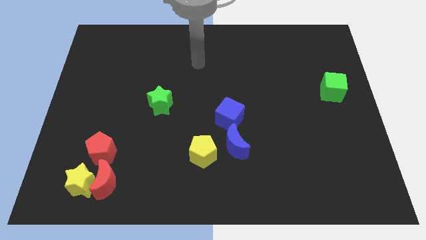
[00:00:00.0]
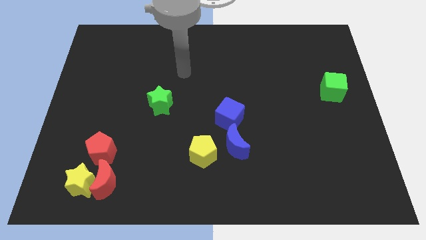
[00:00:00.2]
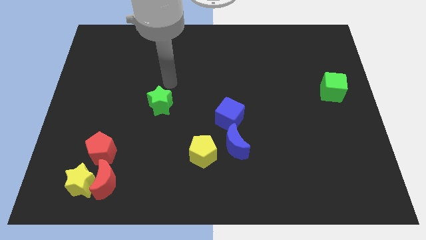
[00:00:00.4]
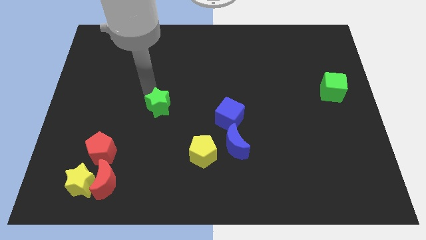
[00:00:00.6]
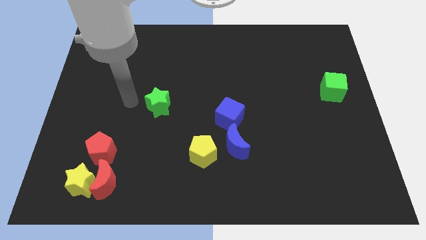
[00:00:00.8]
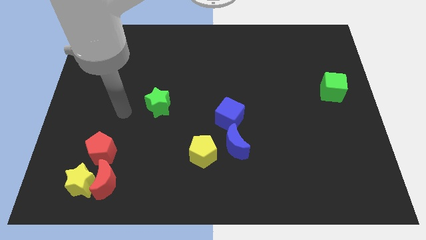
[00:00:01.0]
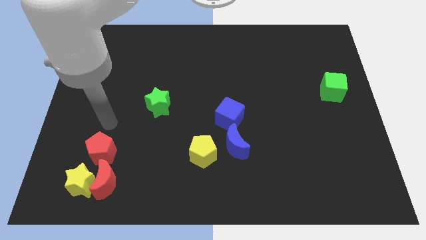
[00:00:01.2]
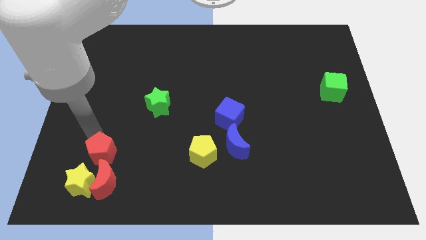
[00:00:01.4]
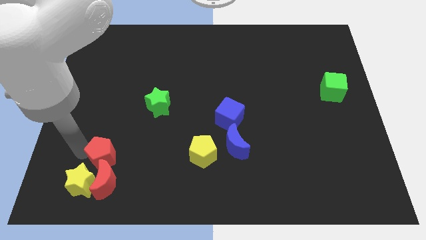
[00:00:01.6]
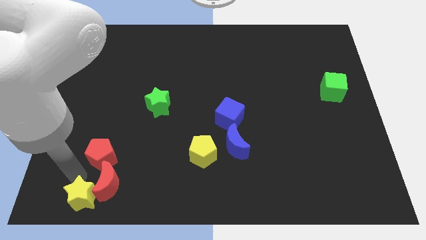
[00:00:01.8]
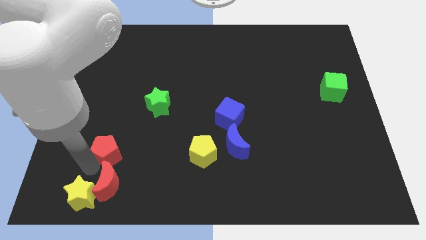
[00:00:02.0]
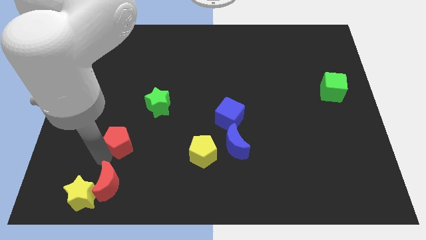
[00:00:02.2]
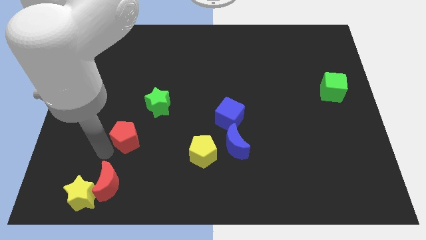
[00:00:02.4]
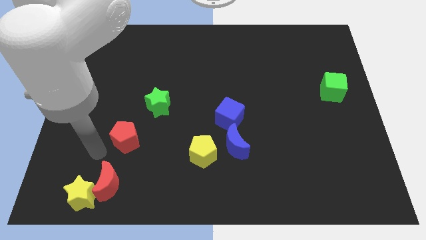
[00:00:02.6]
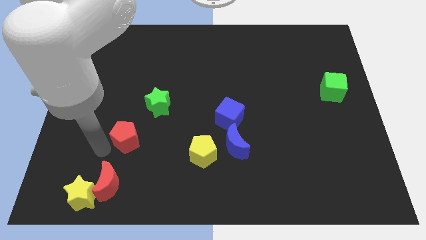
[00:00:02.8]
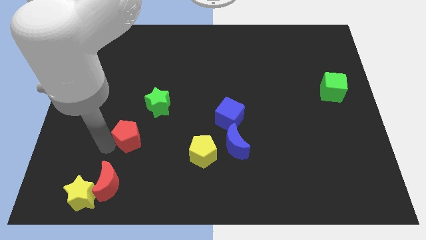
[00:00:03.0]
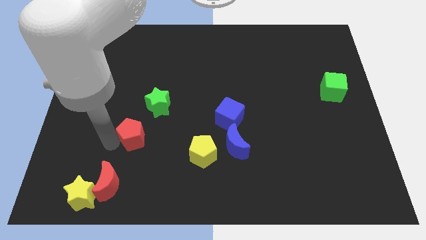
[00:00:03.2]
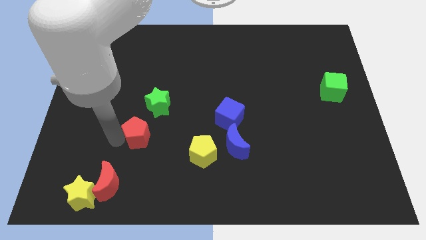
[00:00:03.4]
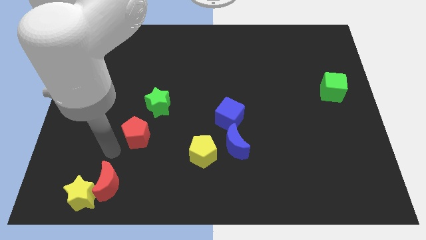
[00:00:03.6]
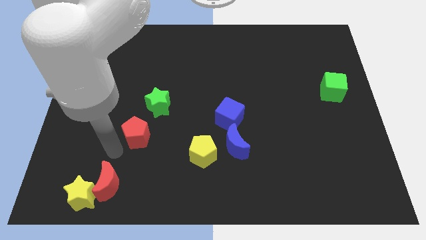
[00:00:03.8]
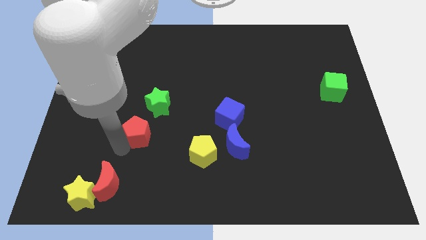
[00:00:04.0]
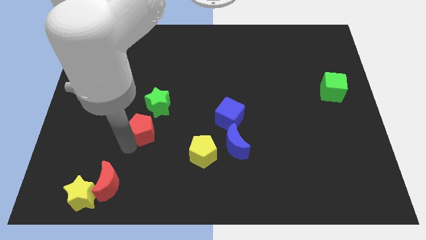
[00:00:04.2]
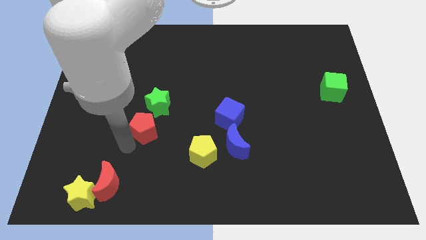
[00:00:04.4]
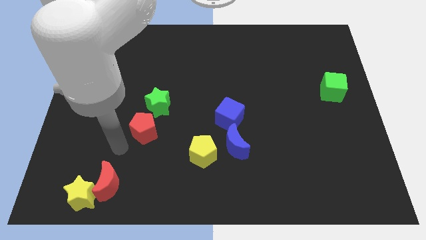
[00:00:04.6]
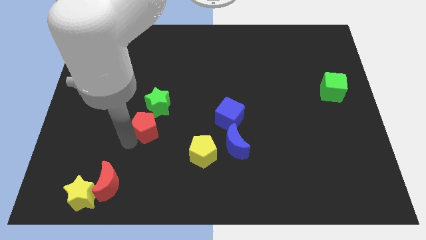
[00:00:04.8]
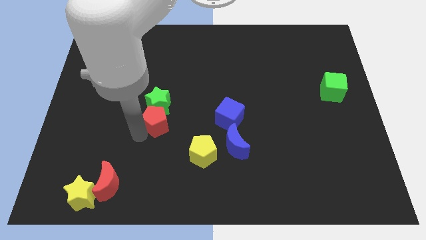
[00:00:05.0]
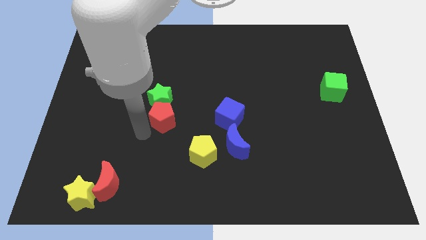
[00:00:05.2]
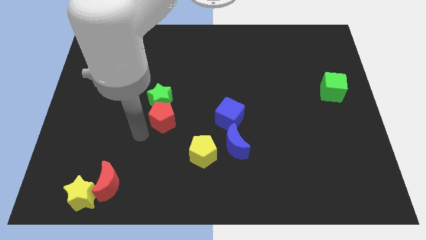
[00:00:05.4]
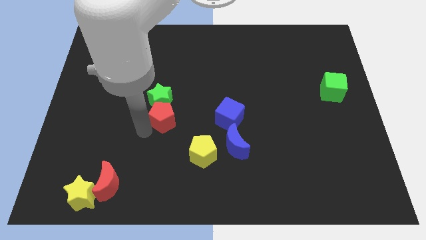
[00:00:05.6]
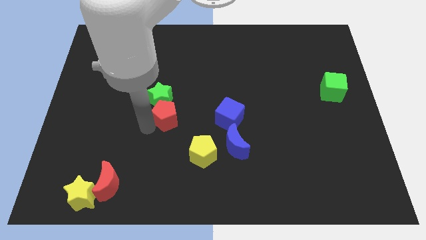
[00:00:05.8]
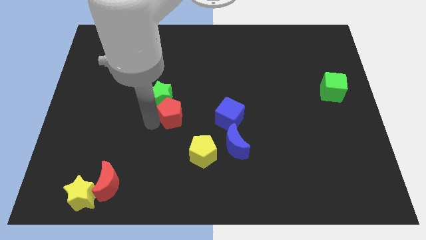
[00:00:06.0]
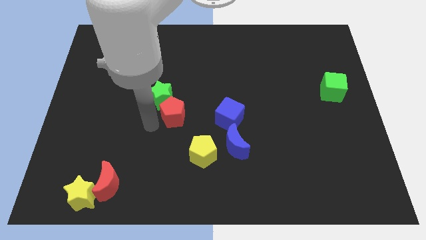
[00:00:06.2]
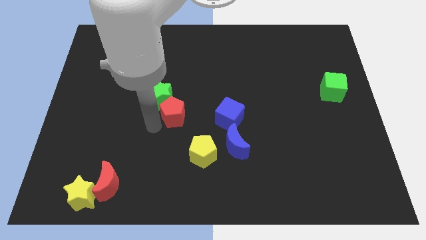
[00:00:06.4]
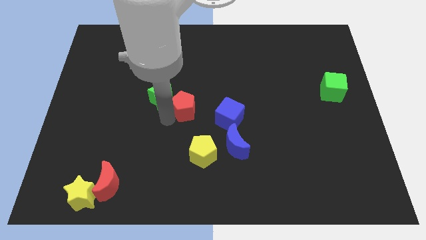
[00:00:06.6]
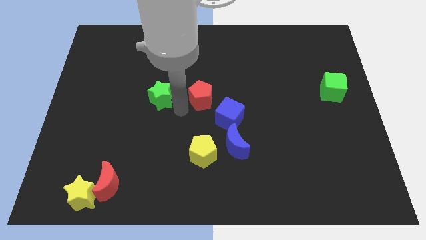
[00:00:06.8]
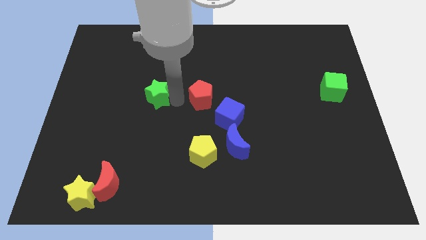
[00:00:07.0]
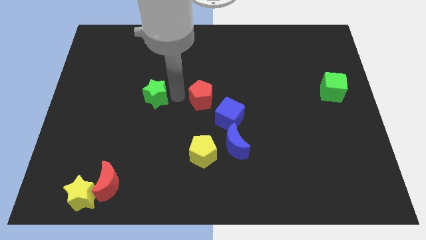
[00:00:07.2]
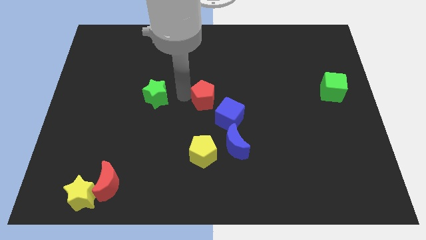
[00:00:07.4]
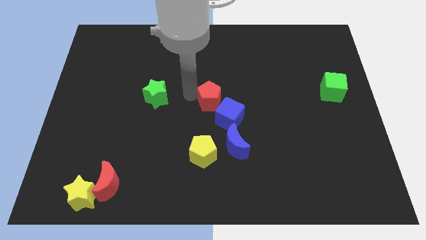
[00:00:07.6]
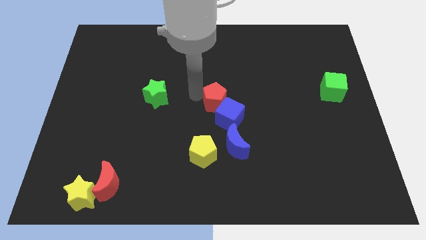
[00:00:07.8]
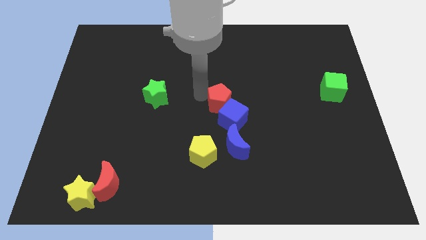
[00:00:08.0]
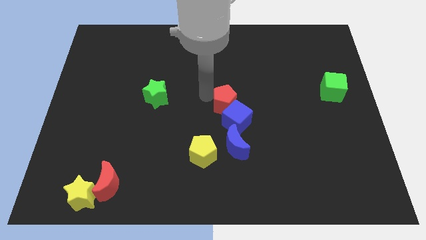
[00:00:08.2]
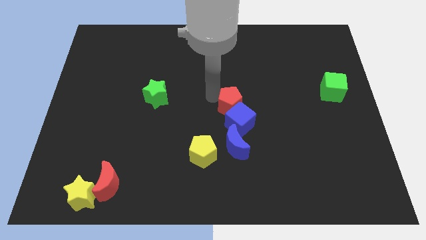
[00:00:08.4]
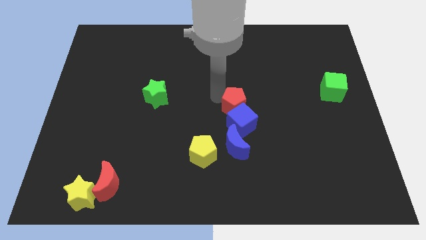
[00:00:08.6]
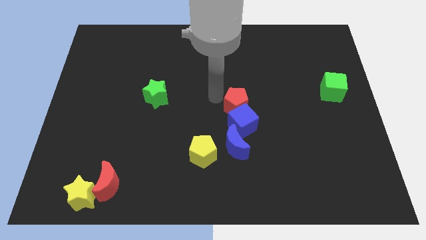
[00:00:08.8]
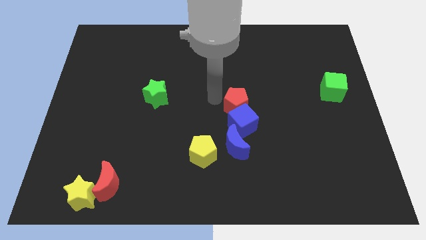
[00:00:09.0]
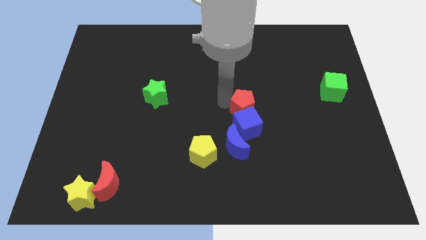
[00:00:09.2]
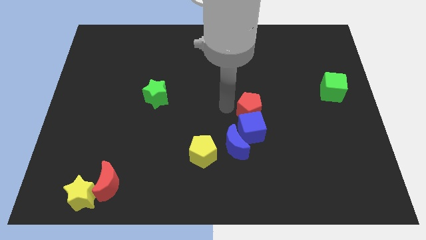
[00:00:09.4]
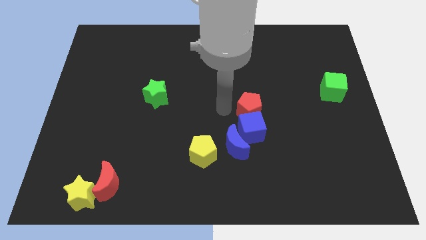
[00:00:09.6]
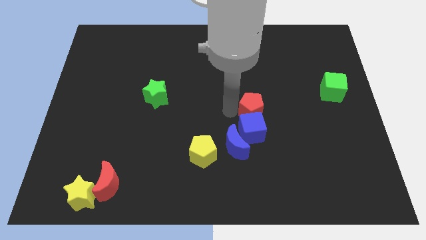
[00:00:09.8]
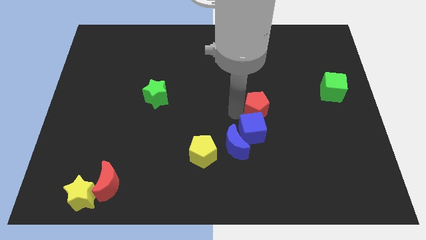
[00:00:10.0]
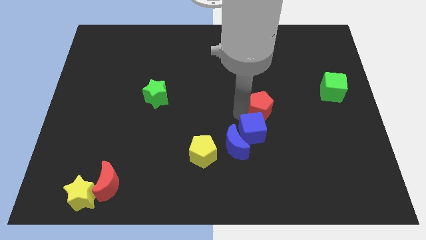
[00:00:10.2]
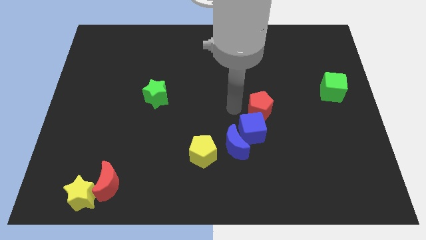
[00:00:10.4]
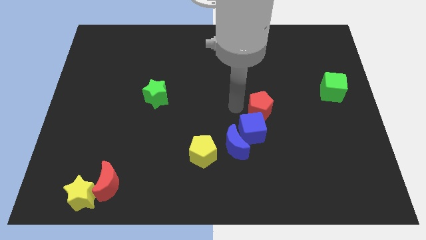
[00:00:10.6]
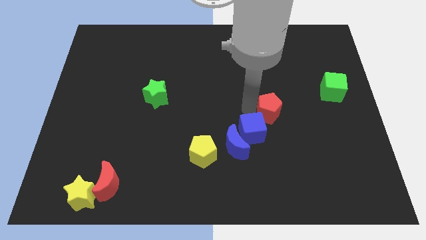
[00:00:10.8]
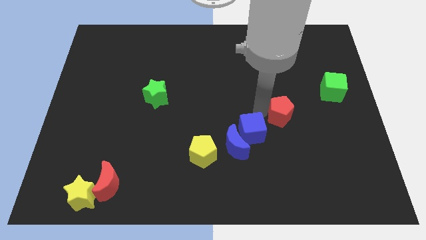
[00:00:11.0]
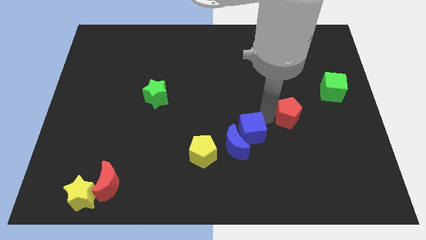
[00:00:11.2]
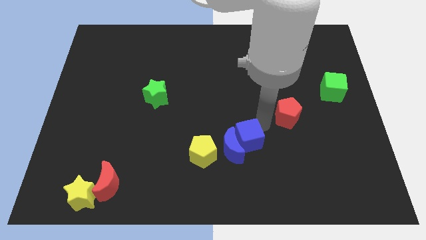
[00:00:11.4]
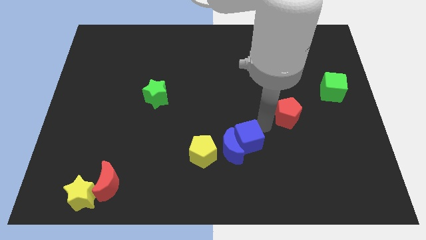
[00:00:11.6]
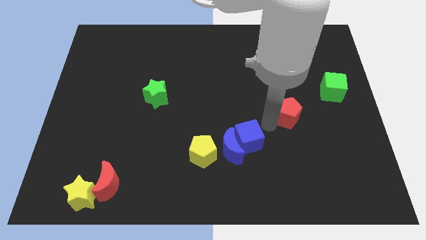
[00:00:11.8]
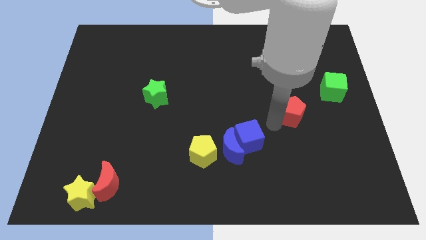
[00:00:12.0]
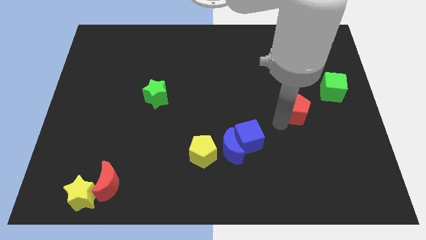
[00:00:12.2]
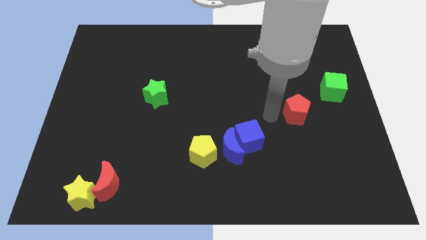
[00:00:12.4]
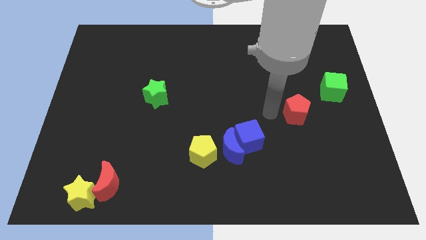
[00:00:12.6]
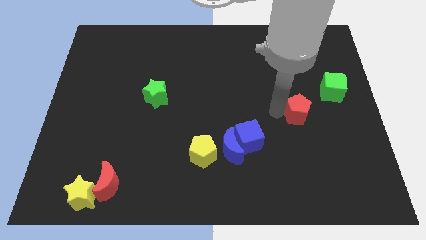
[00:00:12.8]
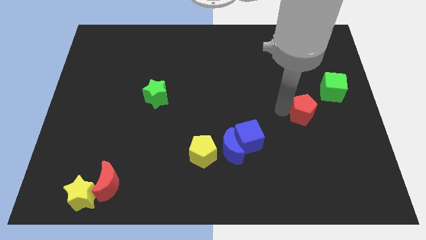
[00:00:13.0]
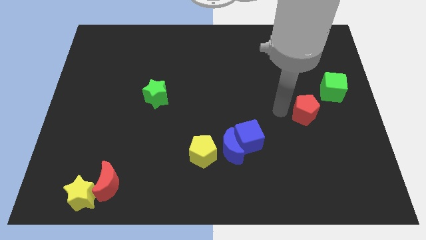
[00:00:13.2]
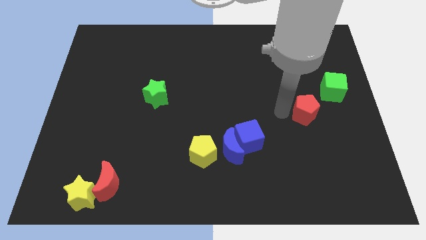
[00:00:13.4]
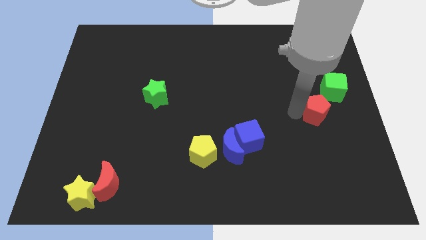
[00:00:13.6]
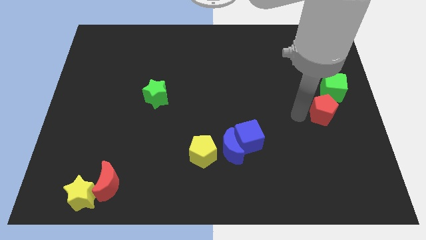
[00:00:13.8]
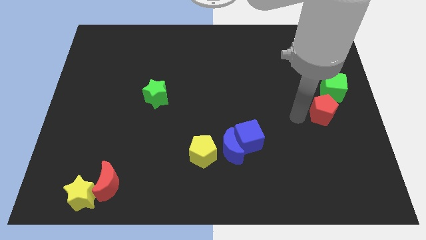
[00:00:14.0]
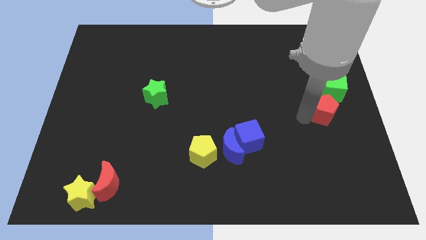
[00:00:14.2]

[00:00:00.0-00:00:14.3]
move the red pentagon to the center right
